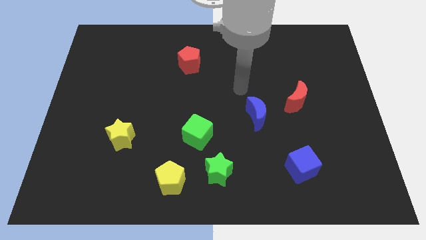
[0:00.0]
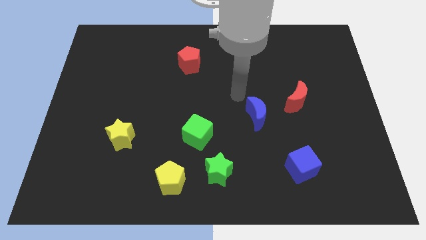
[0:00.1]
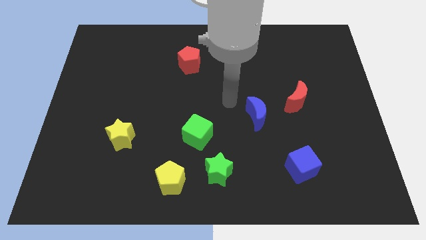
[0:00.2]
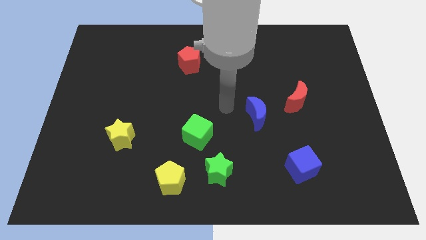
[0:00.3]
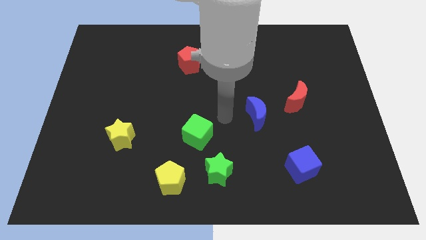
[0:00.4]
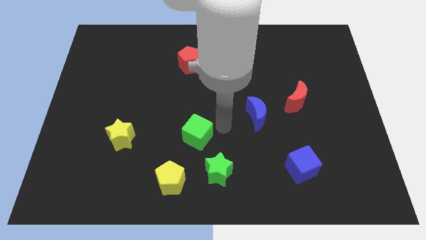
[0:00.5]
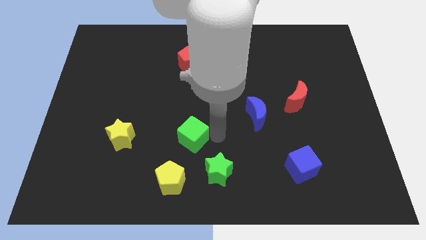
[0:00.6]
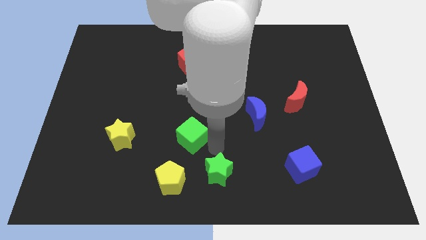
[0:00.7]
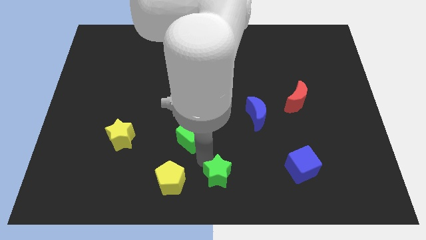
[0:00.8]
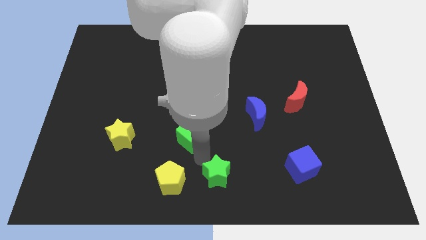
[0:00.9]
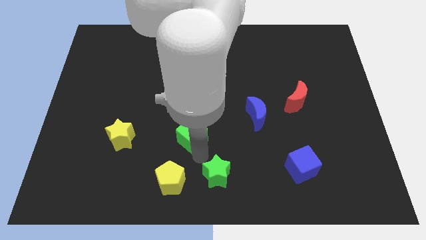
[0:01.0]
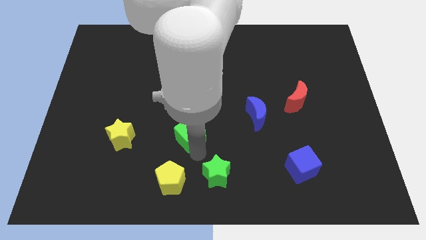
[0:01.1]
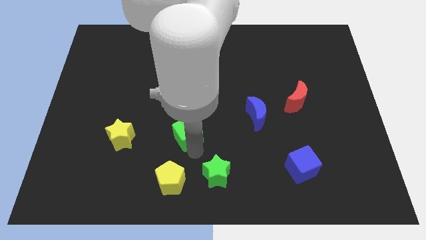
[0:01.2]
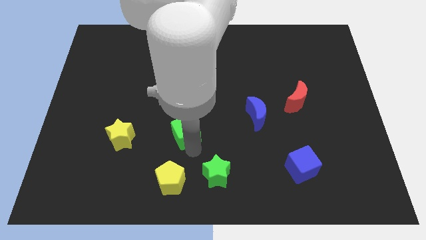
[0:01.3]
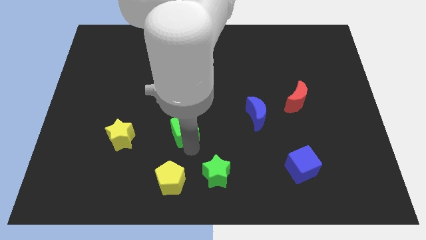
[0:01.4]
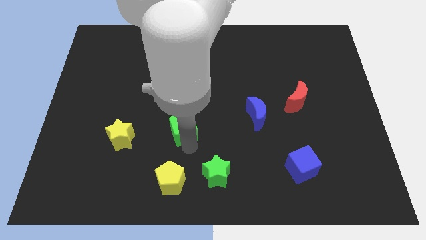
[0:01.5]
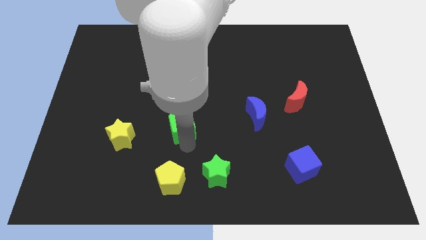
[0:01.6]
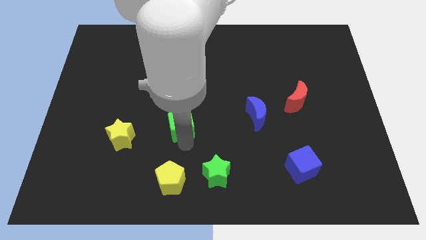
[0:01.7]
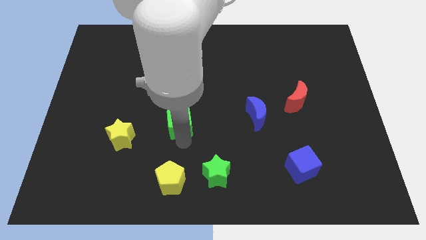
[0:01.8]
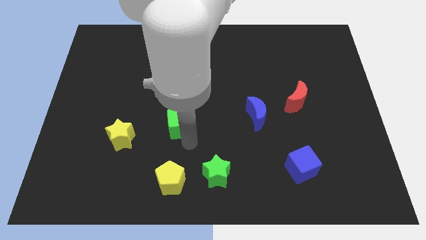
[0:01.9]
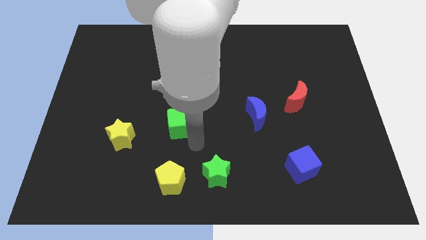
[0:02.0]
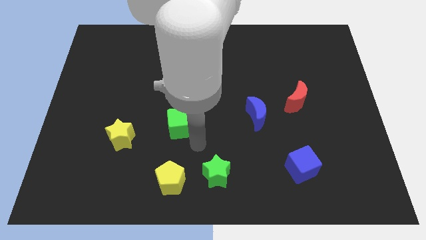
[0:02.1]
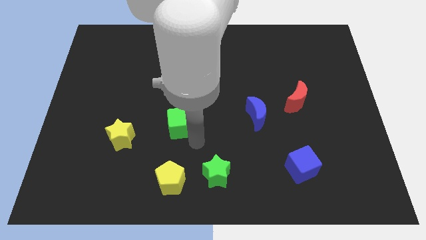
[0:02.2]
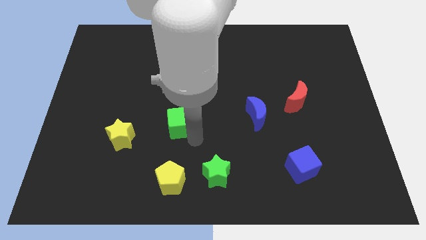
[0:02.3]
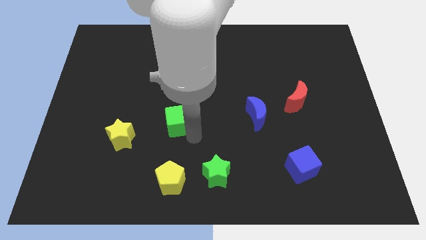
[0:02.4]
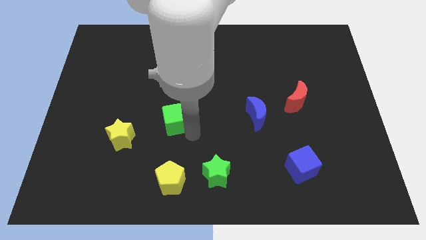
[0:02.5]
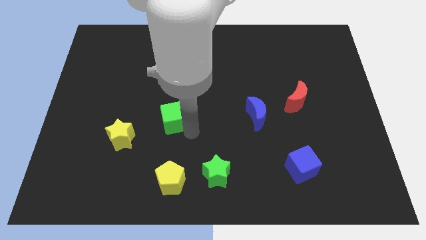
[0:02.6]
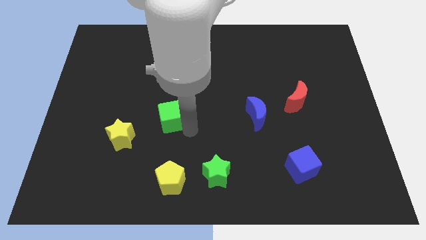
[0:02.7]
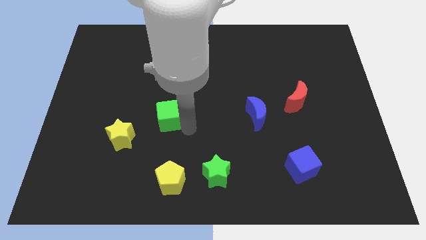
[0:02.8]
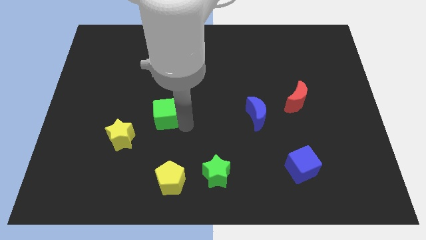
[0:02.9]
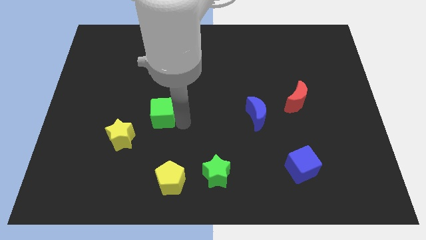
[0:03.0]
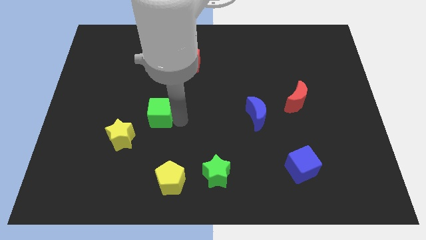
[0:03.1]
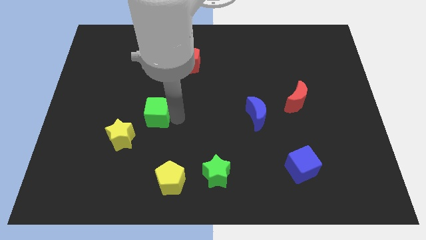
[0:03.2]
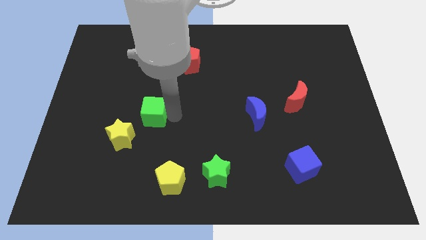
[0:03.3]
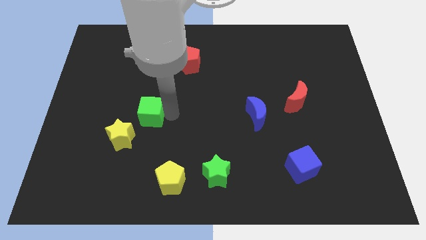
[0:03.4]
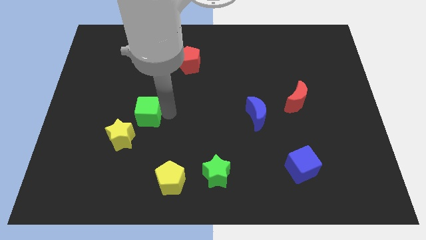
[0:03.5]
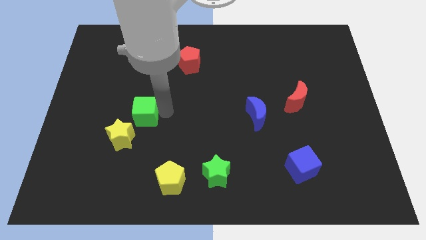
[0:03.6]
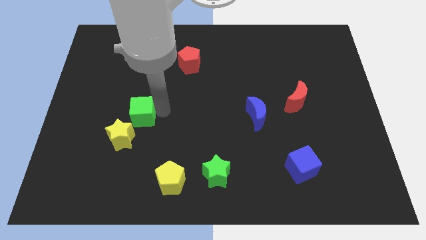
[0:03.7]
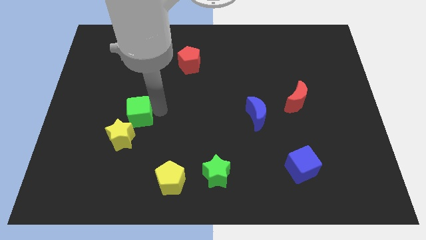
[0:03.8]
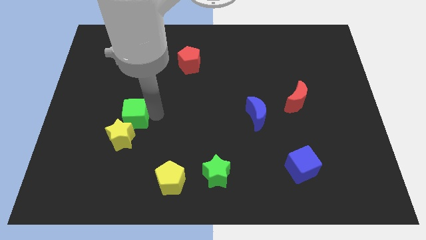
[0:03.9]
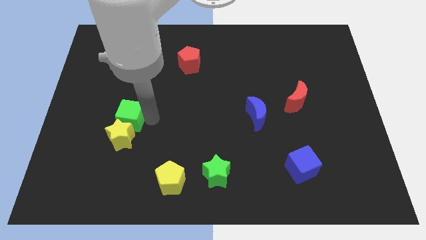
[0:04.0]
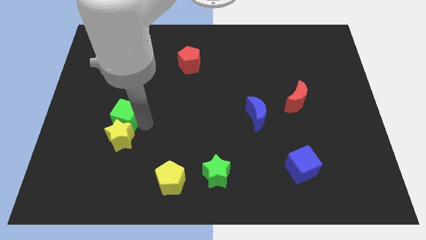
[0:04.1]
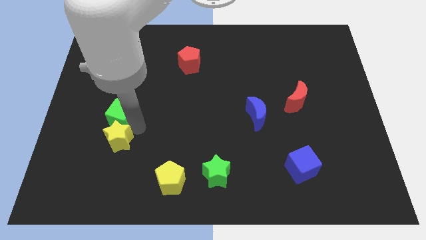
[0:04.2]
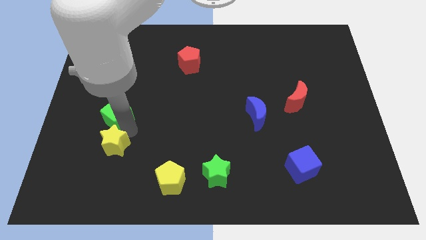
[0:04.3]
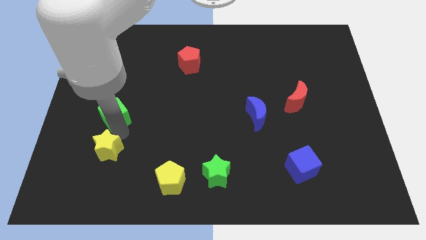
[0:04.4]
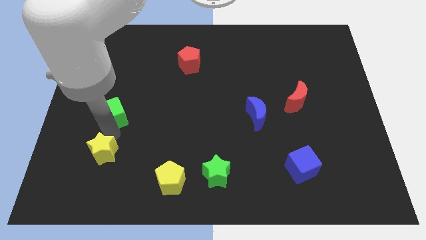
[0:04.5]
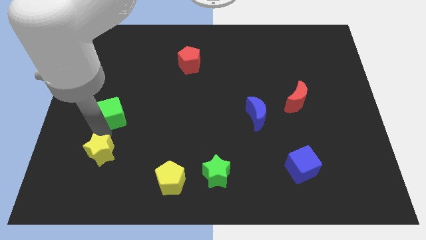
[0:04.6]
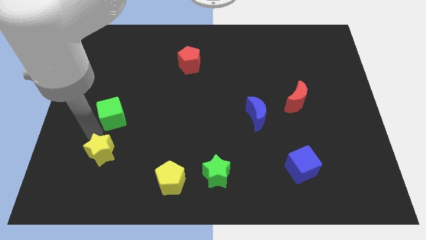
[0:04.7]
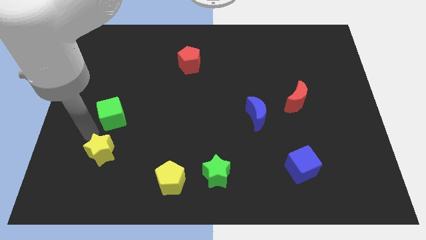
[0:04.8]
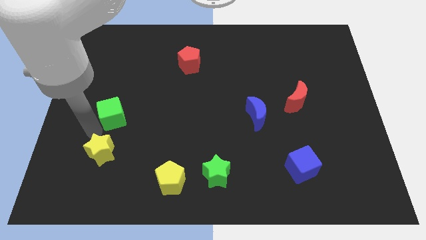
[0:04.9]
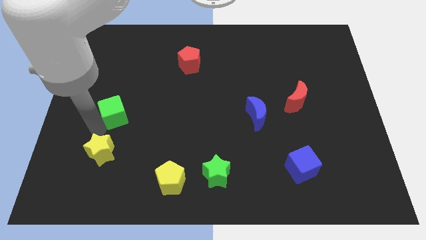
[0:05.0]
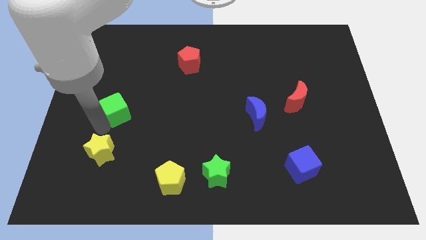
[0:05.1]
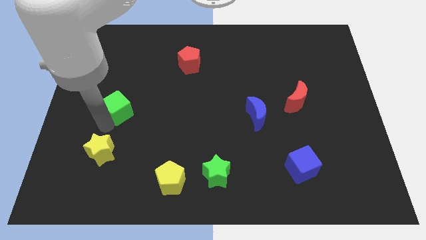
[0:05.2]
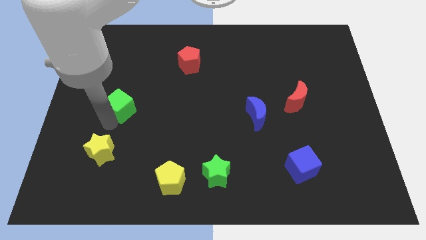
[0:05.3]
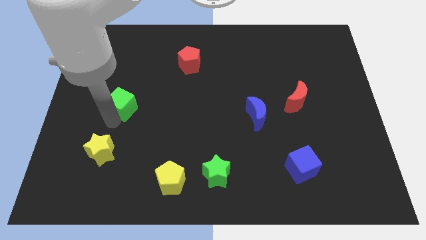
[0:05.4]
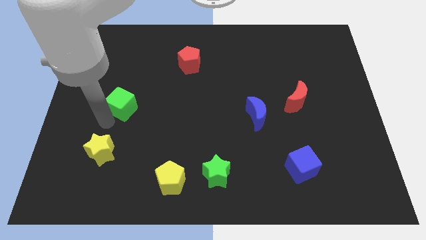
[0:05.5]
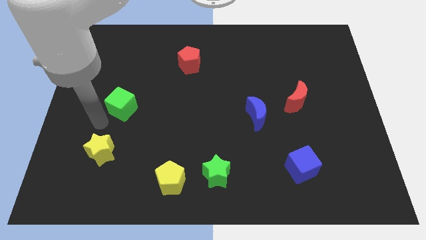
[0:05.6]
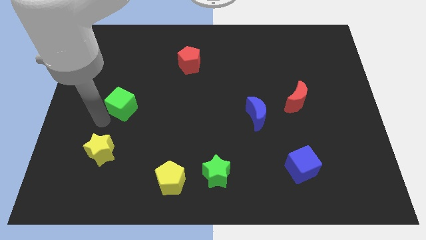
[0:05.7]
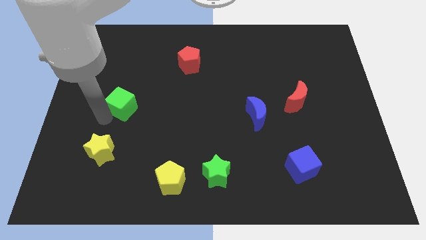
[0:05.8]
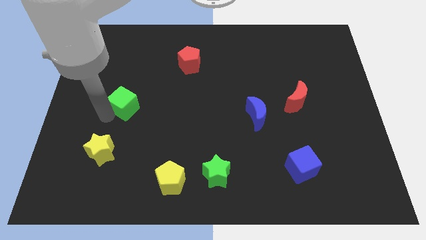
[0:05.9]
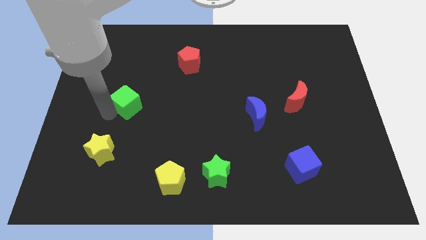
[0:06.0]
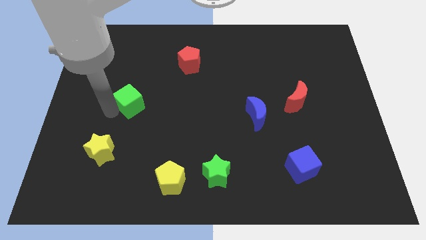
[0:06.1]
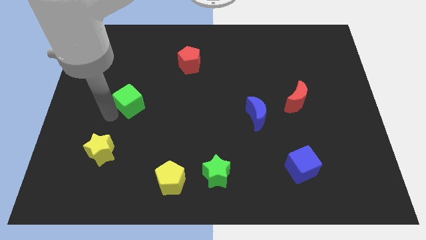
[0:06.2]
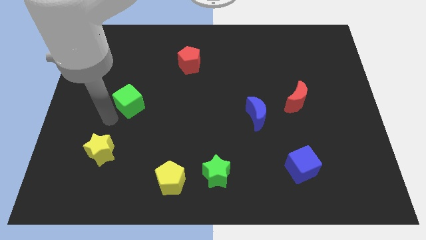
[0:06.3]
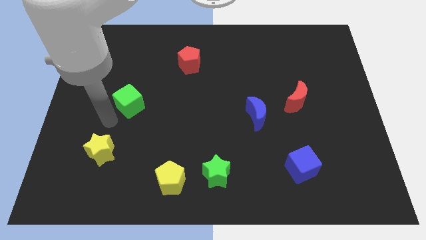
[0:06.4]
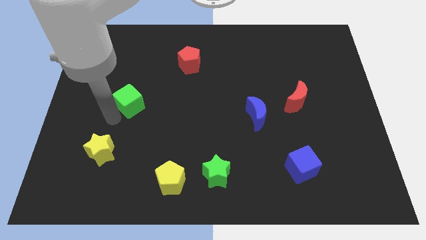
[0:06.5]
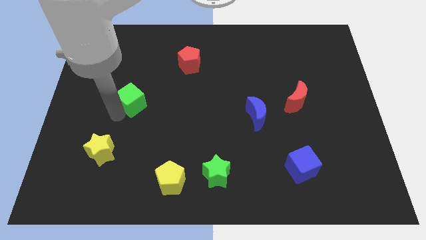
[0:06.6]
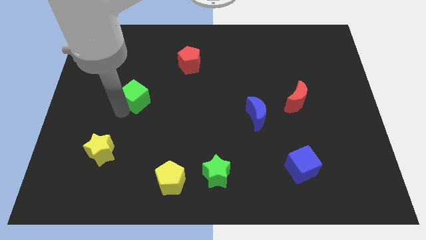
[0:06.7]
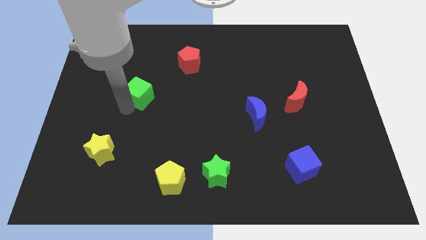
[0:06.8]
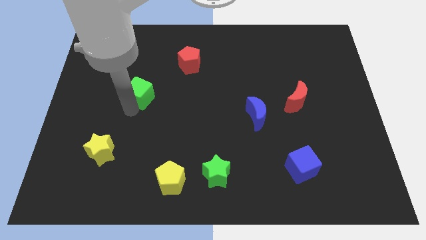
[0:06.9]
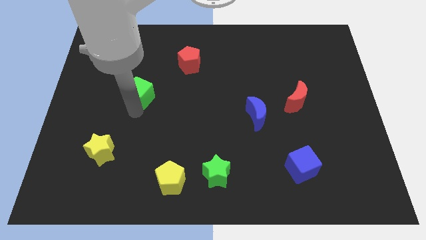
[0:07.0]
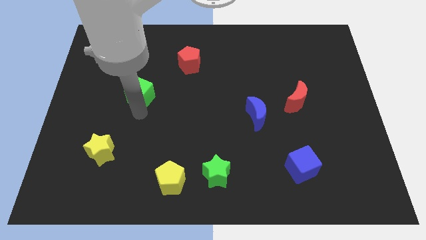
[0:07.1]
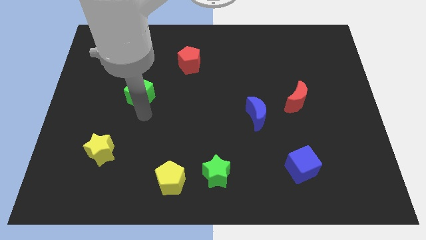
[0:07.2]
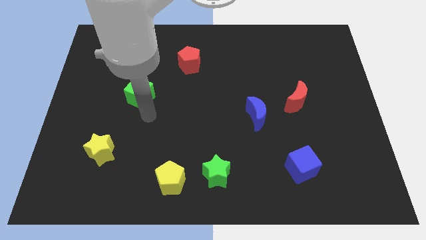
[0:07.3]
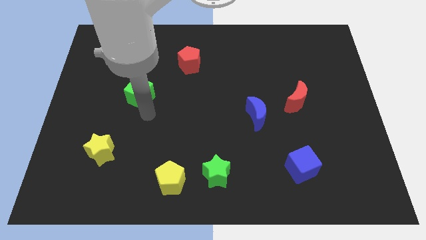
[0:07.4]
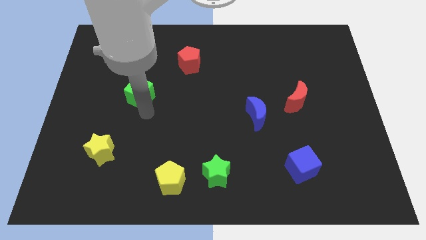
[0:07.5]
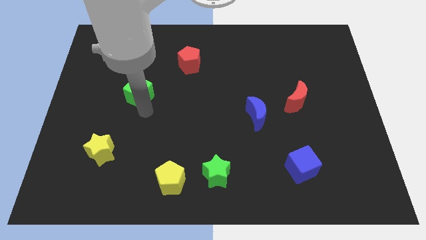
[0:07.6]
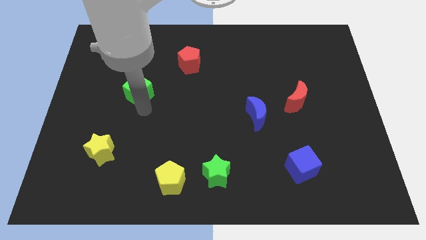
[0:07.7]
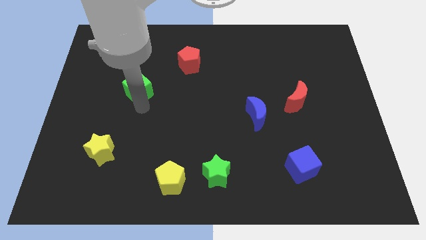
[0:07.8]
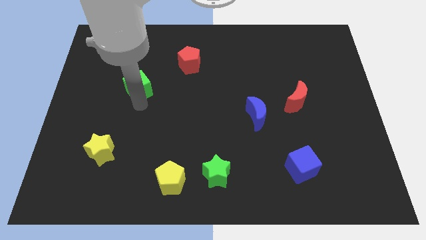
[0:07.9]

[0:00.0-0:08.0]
move the green cube upwards and to the left diagonally
